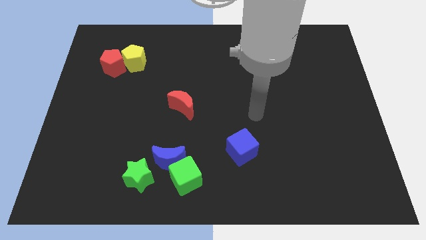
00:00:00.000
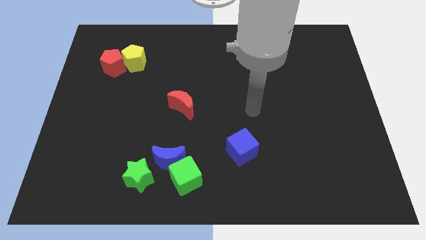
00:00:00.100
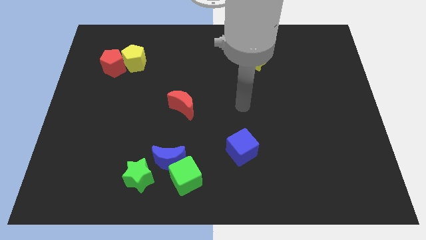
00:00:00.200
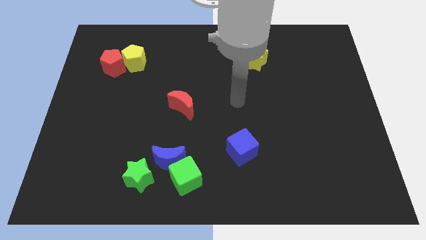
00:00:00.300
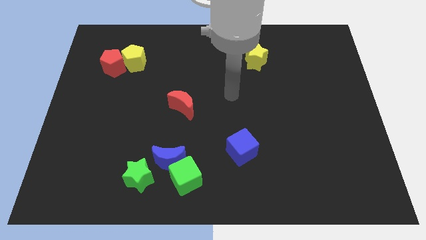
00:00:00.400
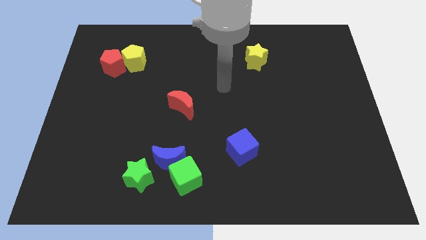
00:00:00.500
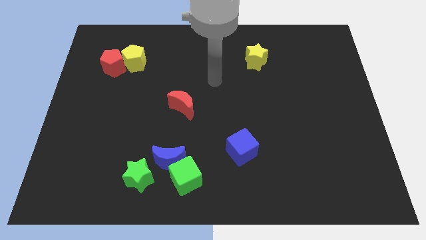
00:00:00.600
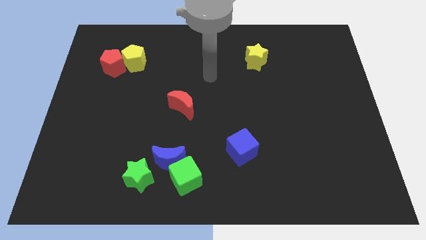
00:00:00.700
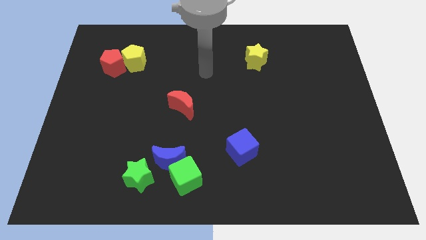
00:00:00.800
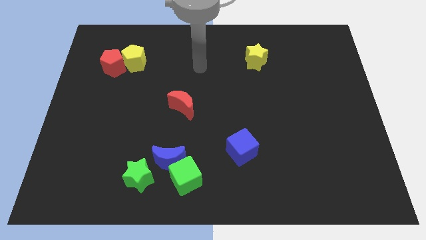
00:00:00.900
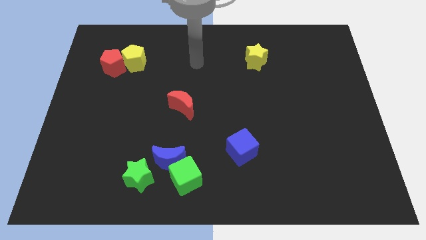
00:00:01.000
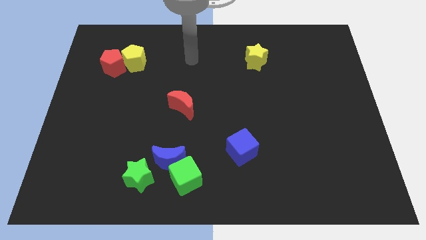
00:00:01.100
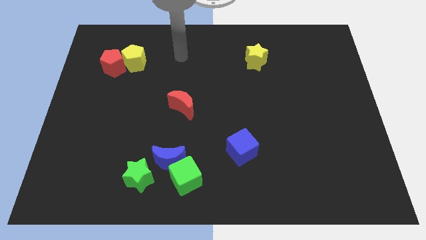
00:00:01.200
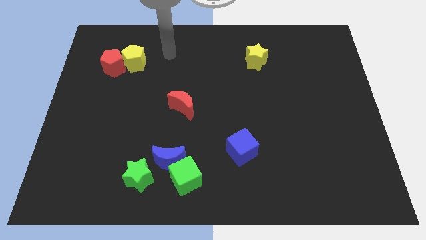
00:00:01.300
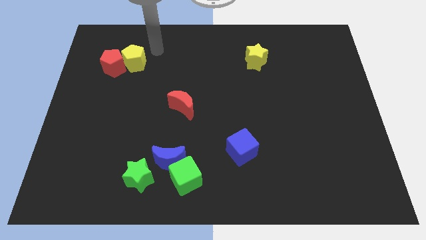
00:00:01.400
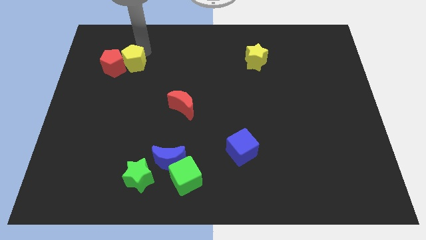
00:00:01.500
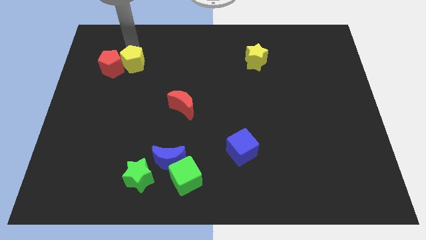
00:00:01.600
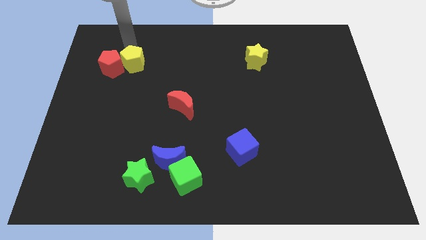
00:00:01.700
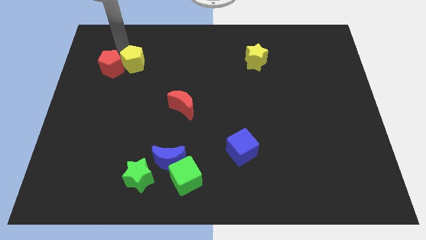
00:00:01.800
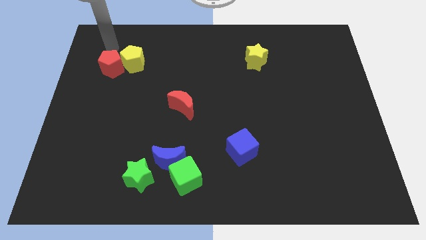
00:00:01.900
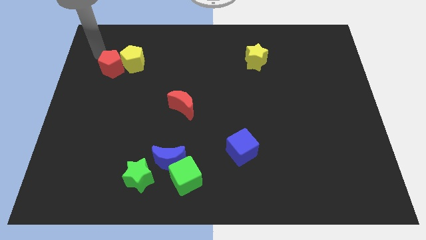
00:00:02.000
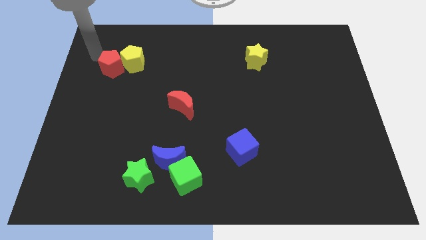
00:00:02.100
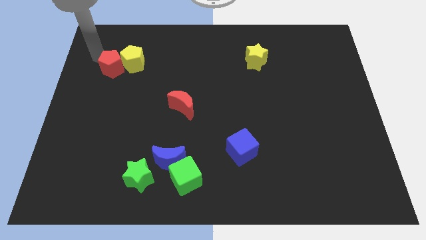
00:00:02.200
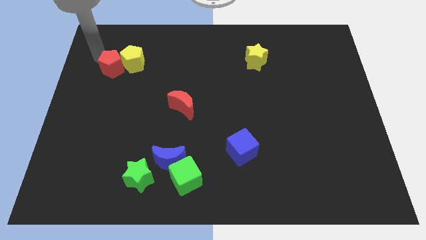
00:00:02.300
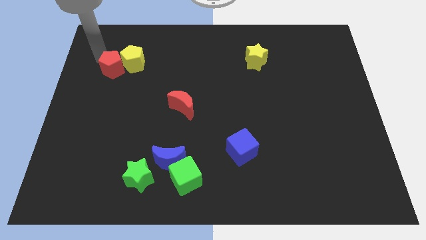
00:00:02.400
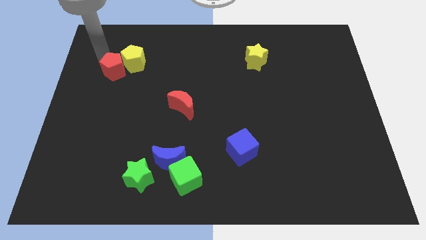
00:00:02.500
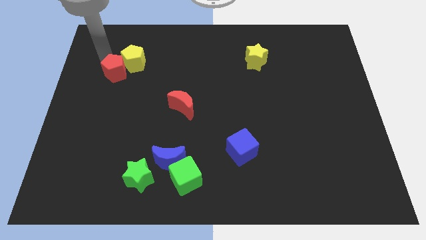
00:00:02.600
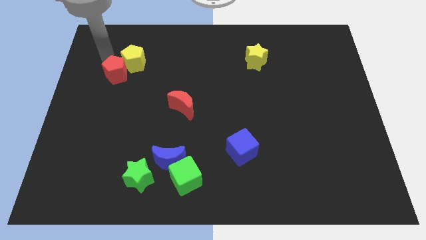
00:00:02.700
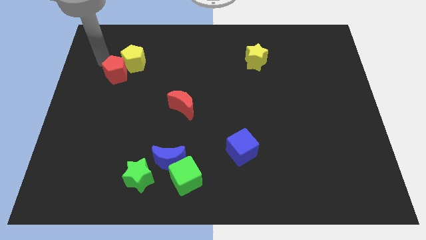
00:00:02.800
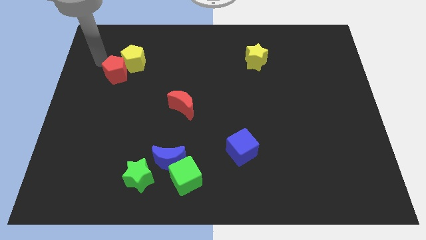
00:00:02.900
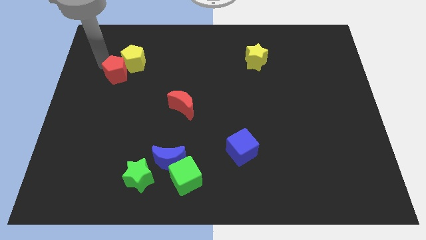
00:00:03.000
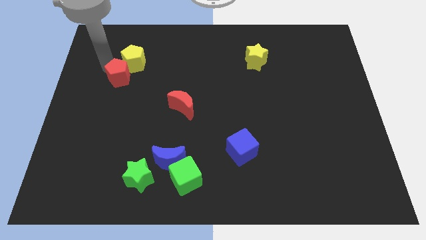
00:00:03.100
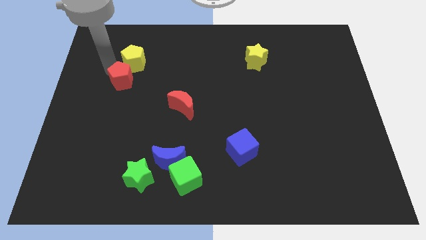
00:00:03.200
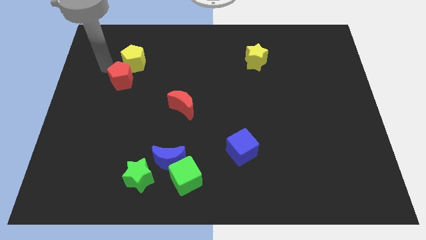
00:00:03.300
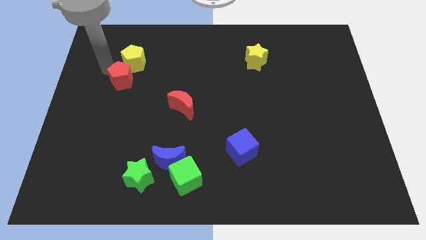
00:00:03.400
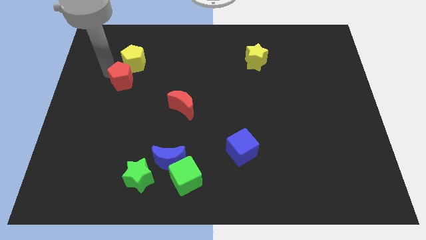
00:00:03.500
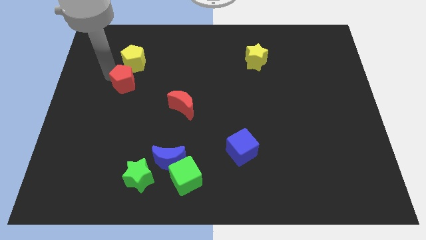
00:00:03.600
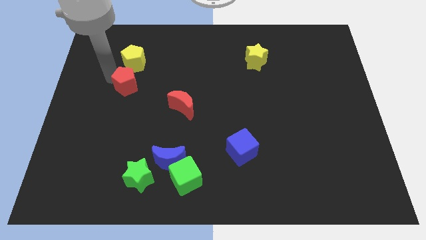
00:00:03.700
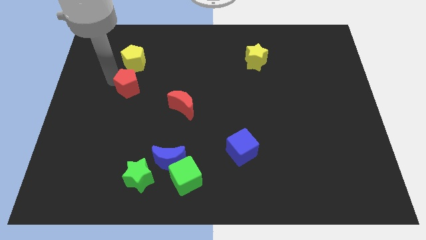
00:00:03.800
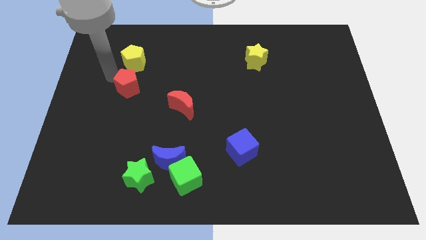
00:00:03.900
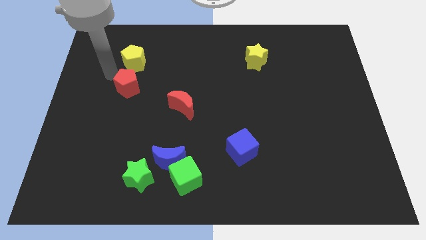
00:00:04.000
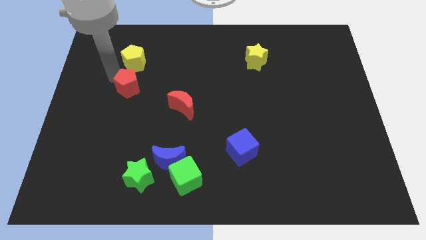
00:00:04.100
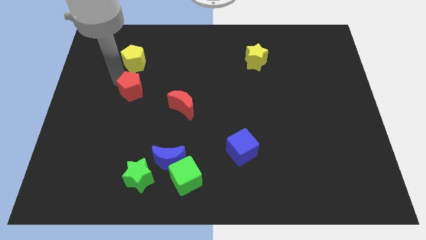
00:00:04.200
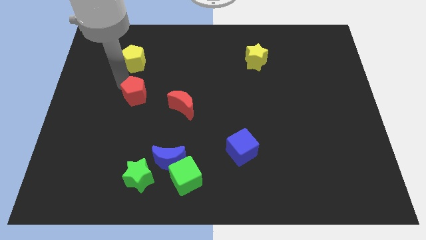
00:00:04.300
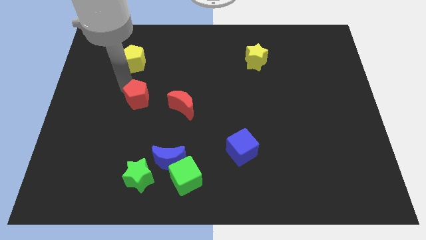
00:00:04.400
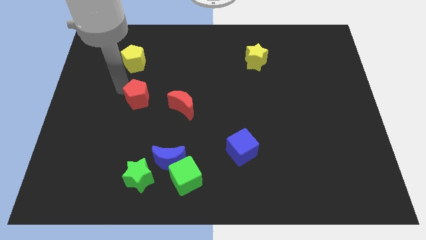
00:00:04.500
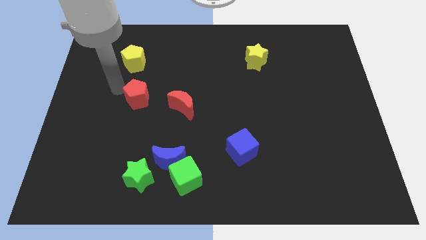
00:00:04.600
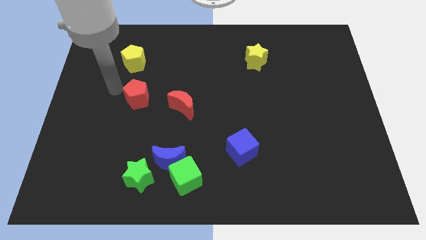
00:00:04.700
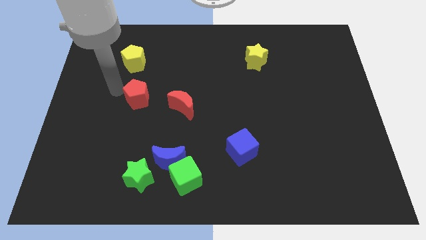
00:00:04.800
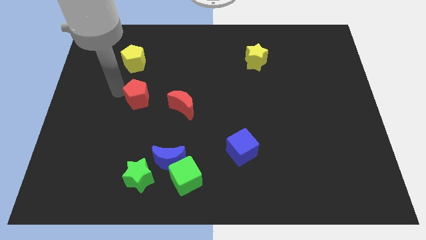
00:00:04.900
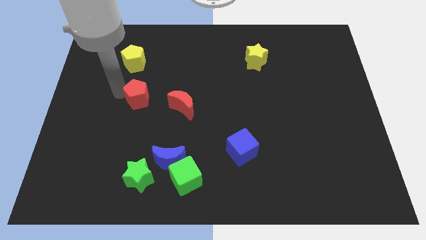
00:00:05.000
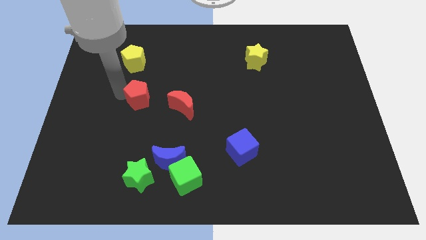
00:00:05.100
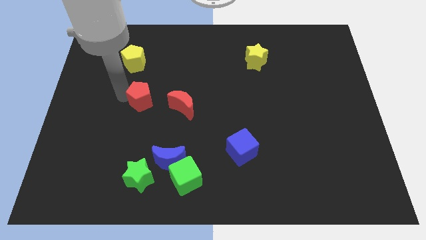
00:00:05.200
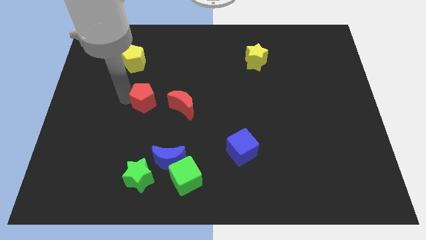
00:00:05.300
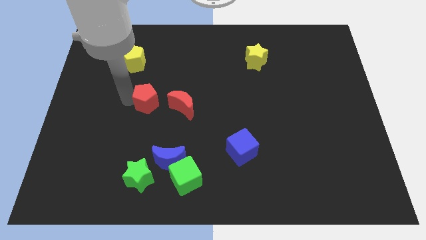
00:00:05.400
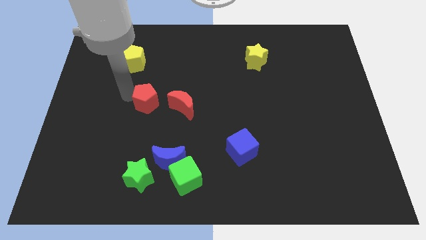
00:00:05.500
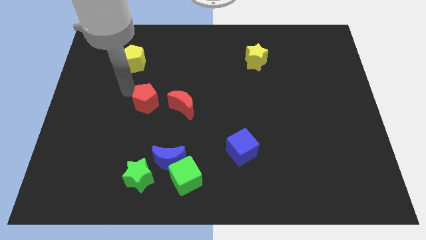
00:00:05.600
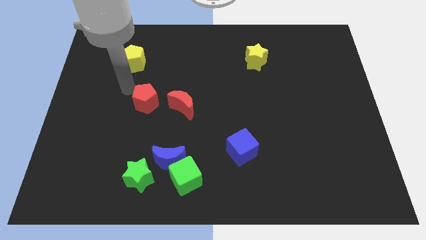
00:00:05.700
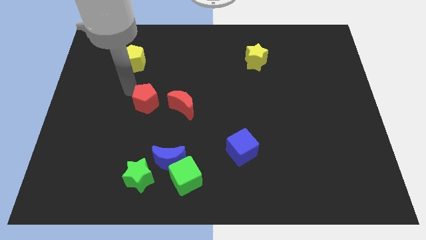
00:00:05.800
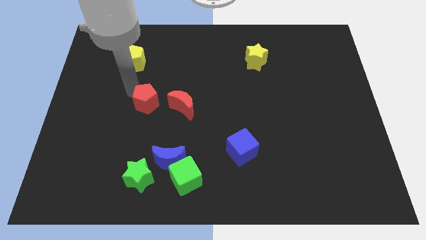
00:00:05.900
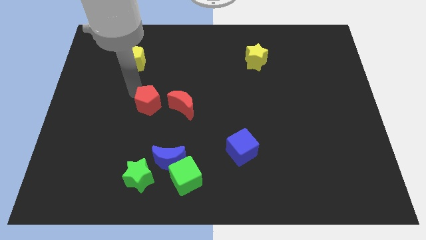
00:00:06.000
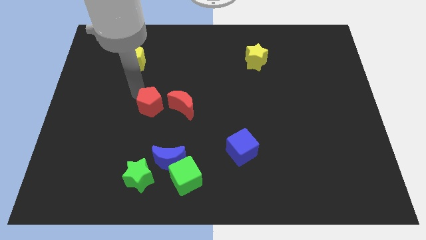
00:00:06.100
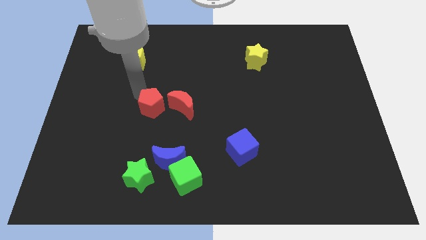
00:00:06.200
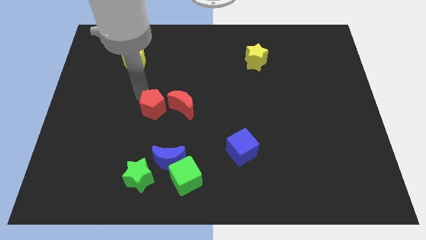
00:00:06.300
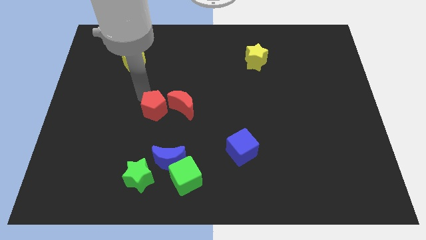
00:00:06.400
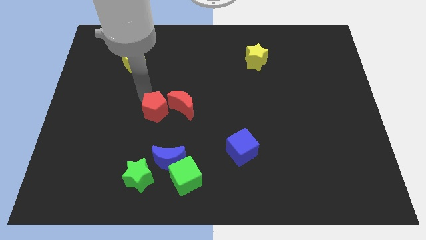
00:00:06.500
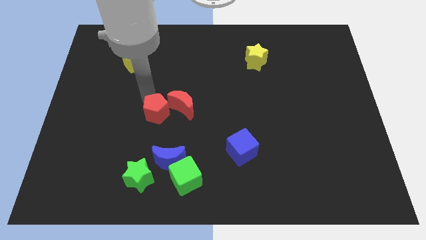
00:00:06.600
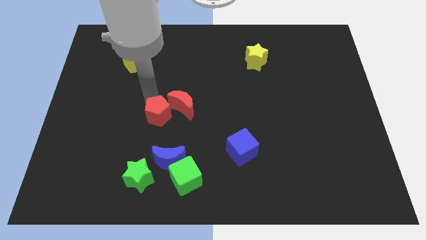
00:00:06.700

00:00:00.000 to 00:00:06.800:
push the red pentagon down and right diagonally

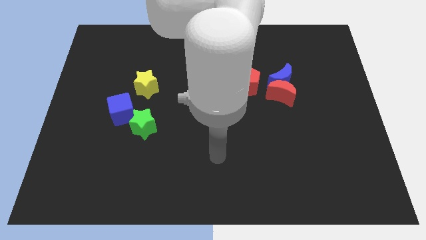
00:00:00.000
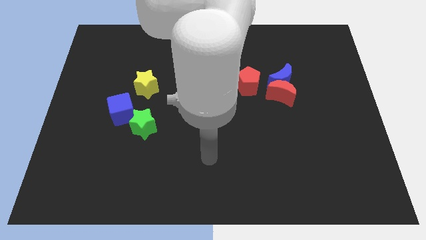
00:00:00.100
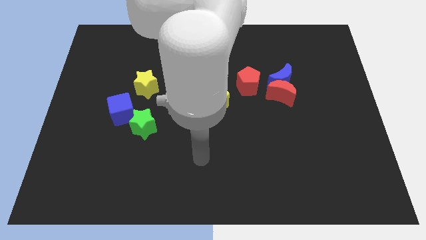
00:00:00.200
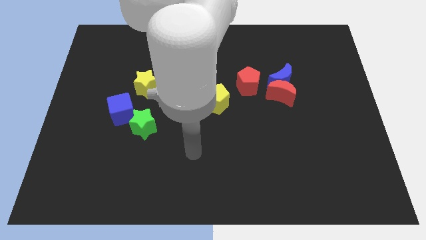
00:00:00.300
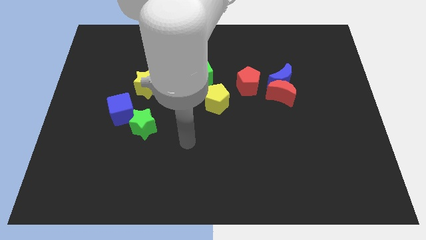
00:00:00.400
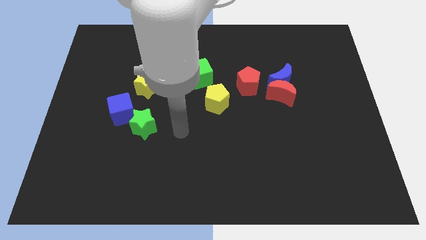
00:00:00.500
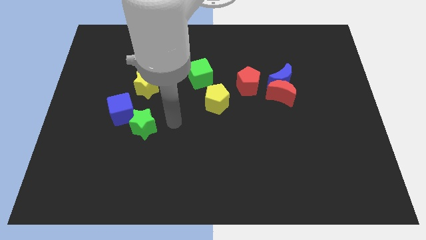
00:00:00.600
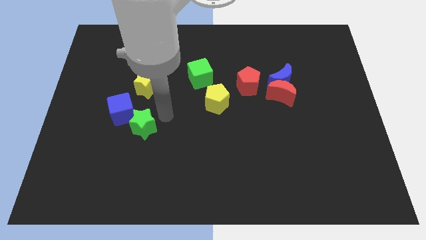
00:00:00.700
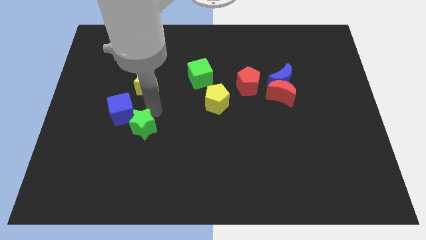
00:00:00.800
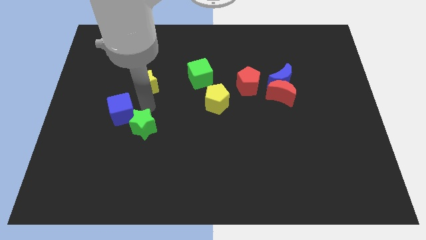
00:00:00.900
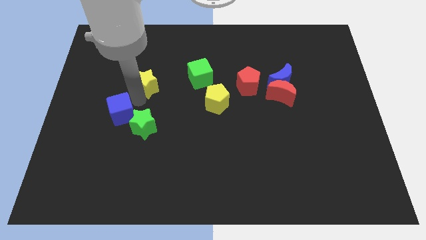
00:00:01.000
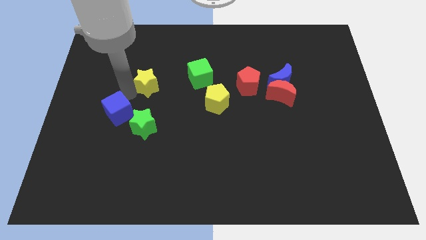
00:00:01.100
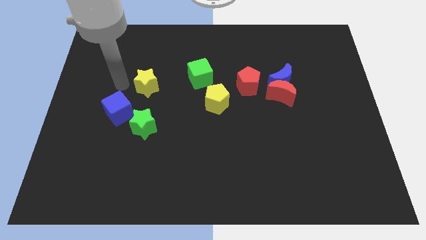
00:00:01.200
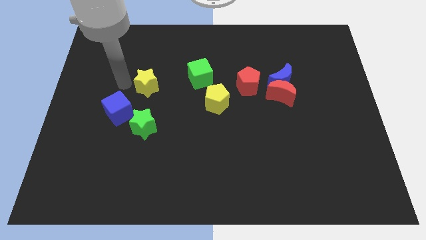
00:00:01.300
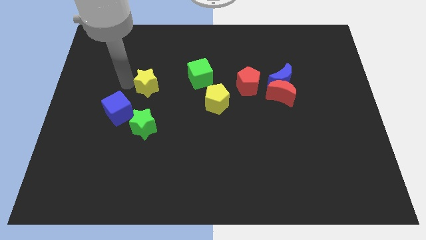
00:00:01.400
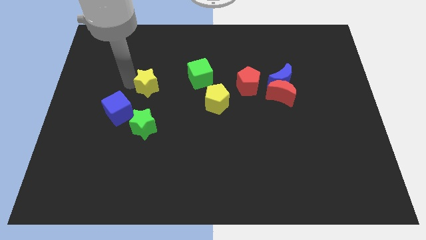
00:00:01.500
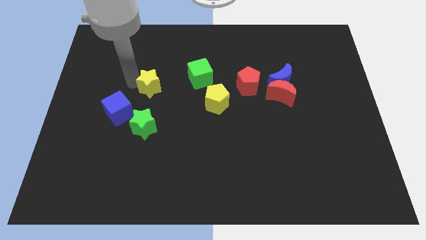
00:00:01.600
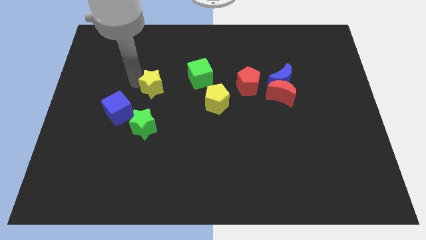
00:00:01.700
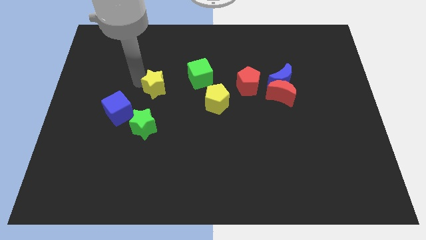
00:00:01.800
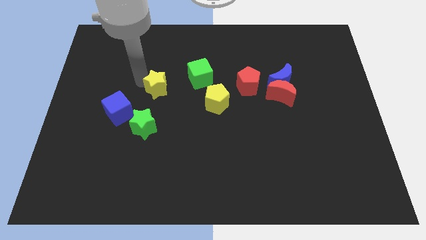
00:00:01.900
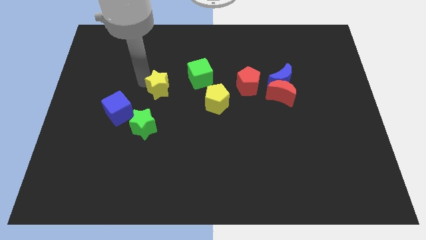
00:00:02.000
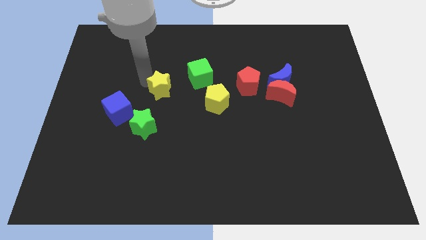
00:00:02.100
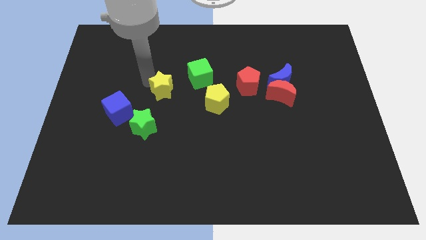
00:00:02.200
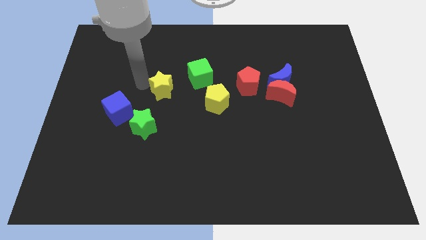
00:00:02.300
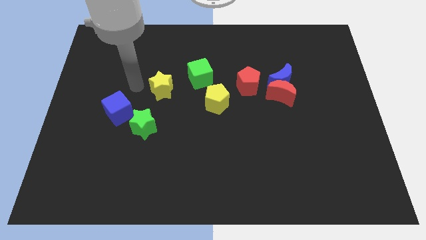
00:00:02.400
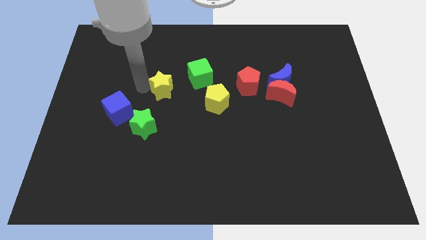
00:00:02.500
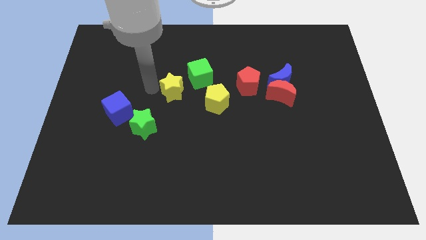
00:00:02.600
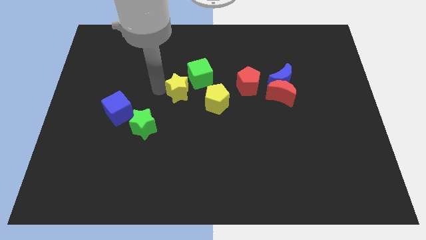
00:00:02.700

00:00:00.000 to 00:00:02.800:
slightly push the yellow star right
